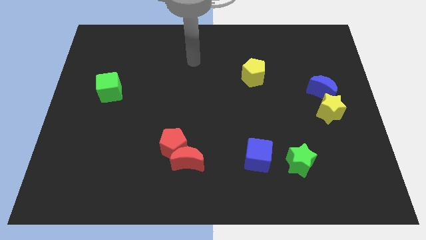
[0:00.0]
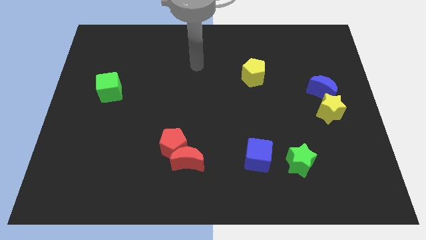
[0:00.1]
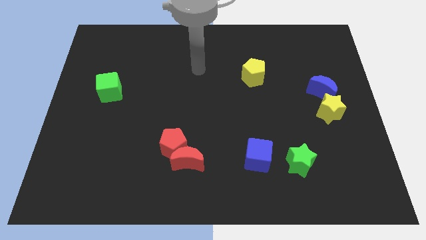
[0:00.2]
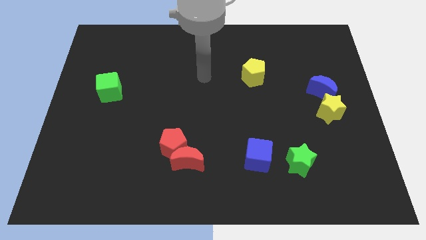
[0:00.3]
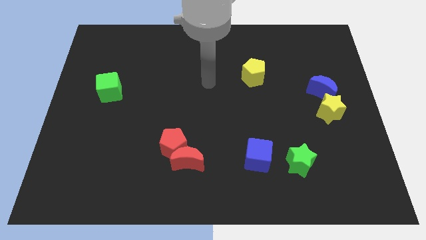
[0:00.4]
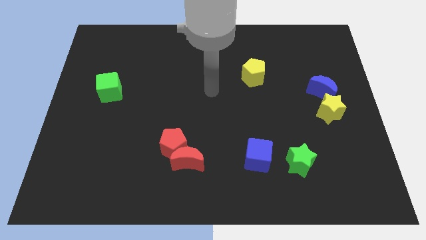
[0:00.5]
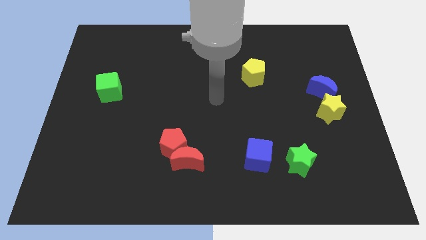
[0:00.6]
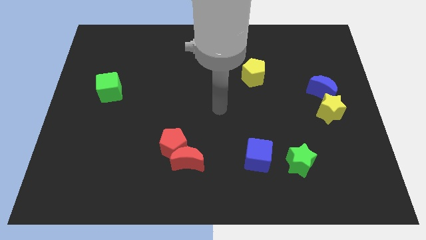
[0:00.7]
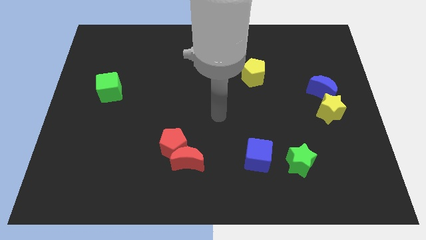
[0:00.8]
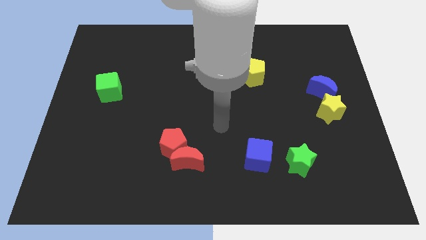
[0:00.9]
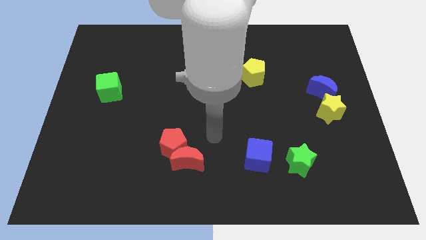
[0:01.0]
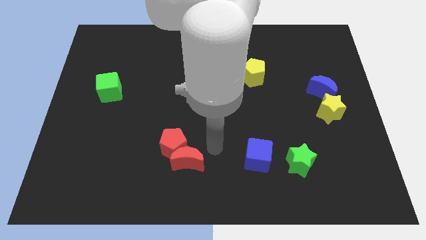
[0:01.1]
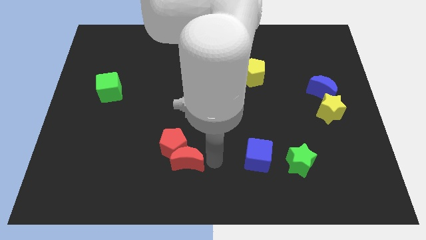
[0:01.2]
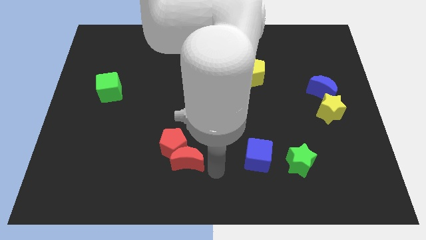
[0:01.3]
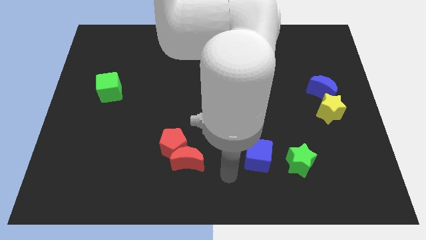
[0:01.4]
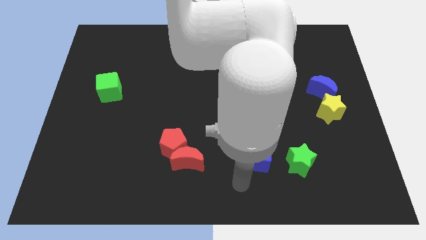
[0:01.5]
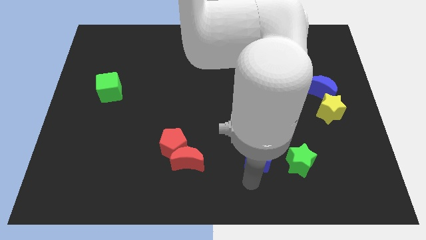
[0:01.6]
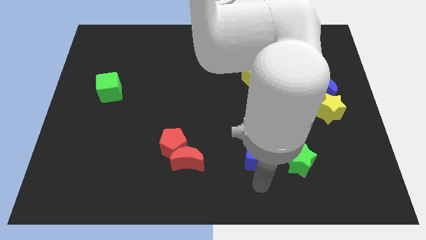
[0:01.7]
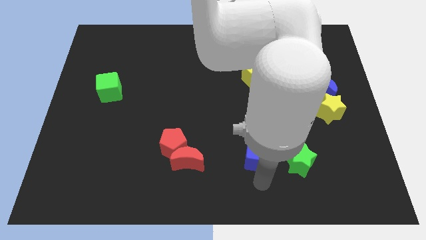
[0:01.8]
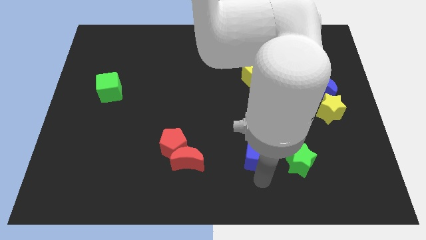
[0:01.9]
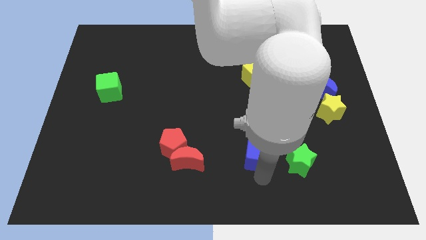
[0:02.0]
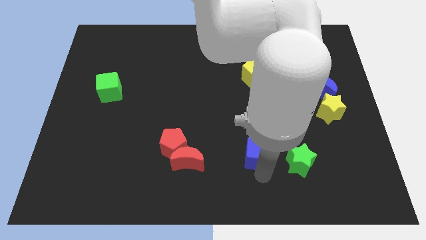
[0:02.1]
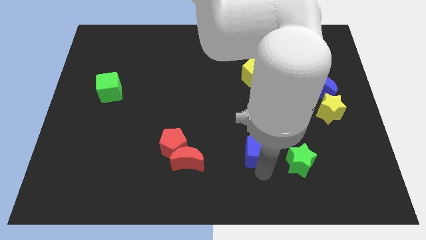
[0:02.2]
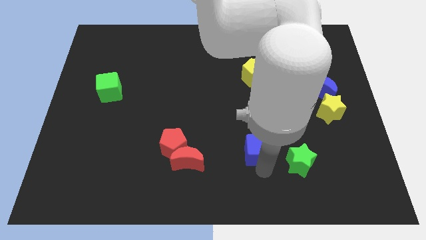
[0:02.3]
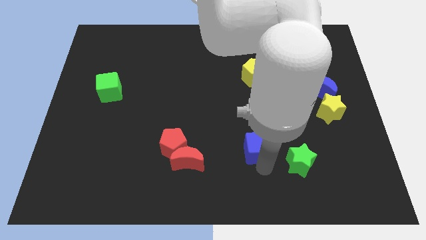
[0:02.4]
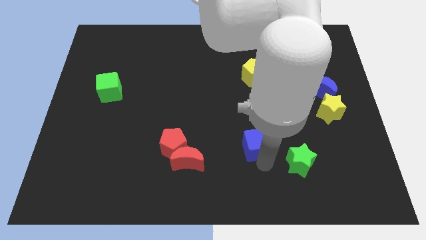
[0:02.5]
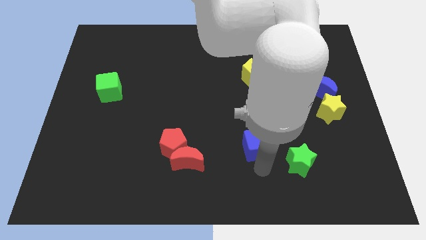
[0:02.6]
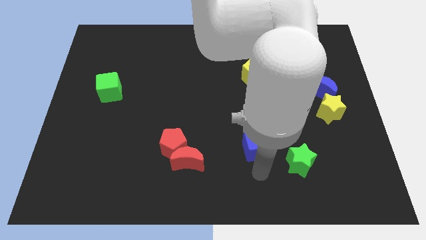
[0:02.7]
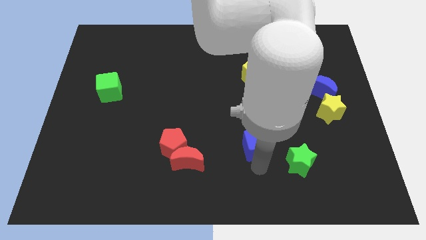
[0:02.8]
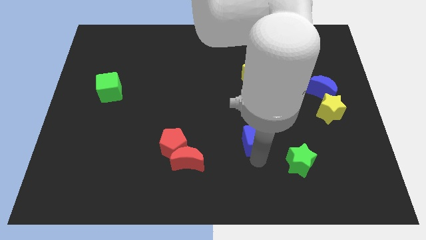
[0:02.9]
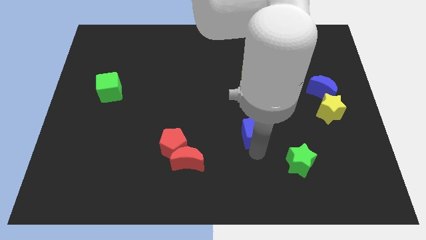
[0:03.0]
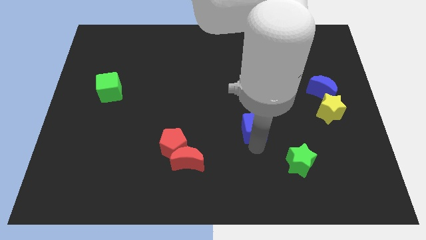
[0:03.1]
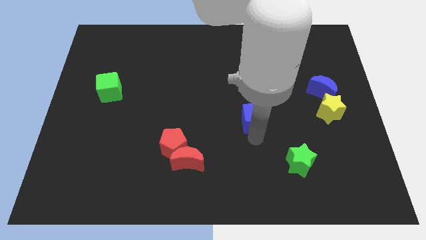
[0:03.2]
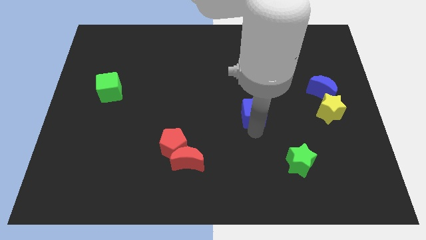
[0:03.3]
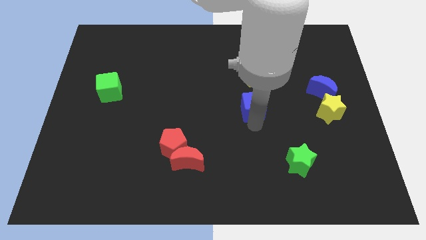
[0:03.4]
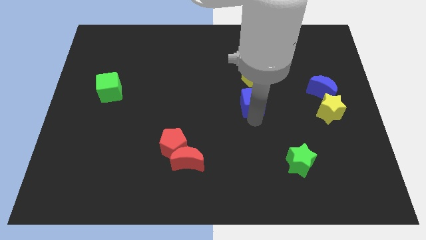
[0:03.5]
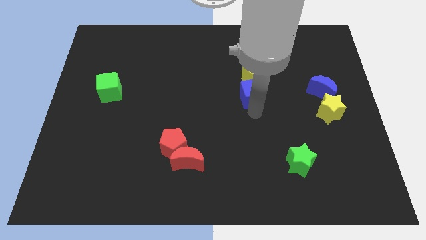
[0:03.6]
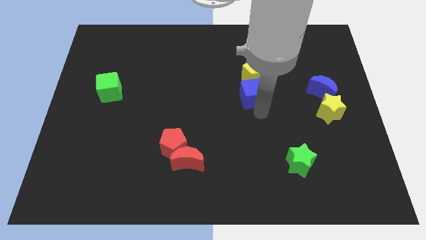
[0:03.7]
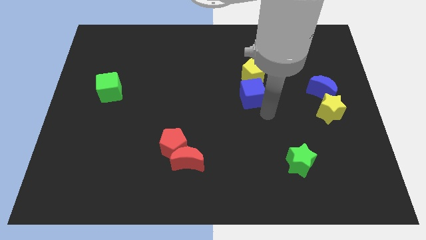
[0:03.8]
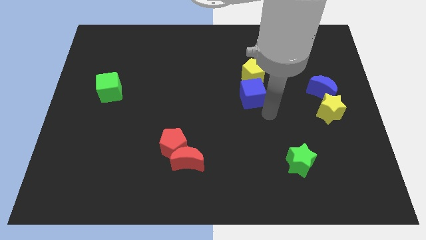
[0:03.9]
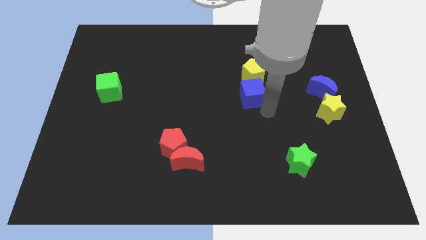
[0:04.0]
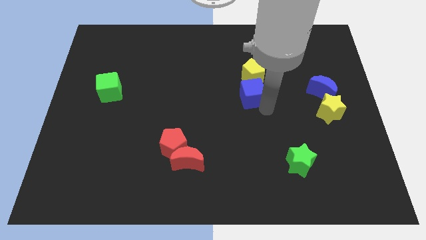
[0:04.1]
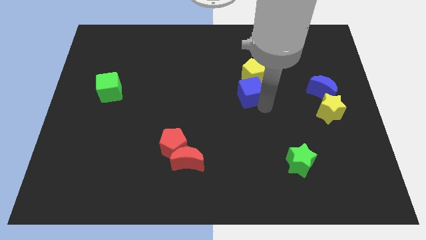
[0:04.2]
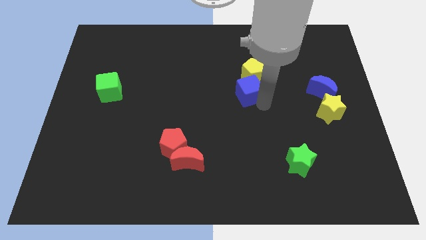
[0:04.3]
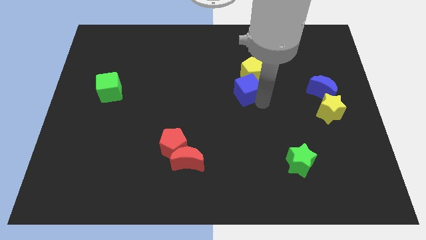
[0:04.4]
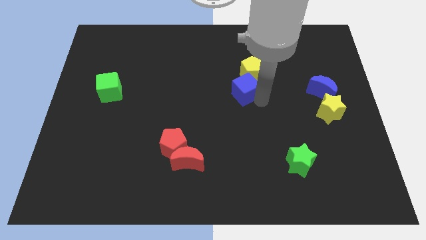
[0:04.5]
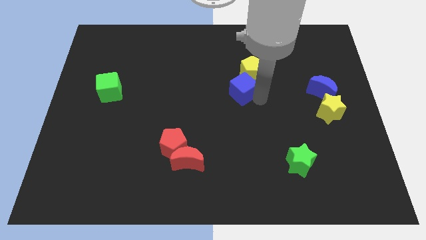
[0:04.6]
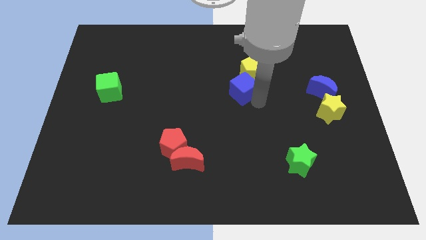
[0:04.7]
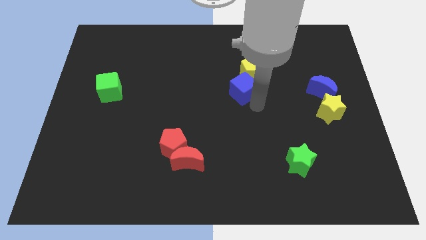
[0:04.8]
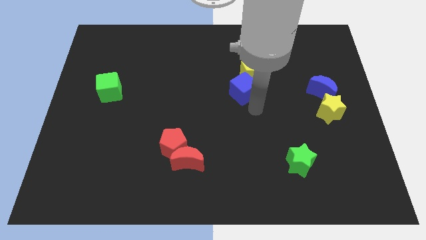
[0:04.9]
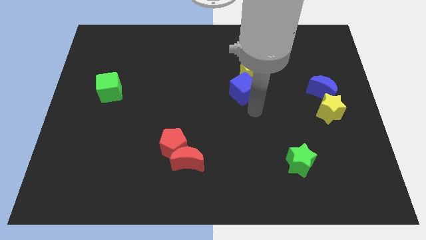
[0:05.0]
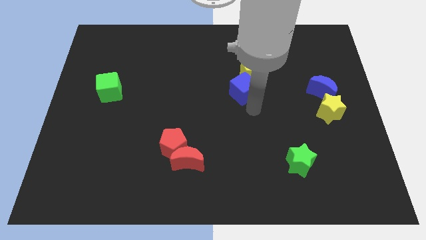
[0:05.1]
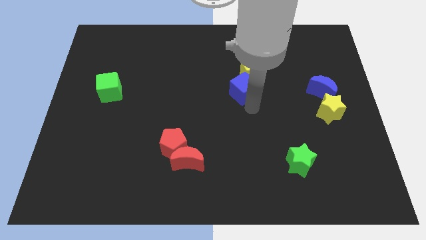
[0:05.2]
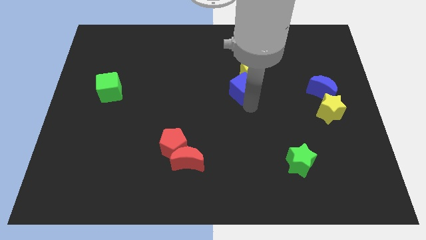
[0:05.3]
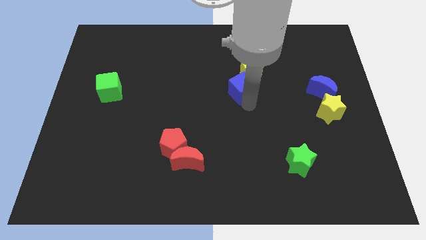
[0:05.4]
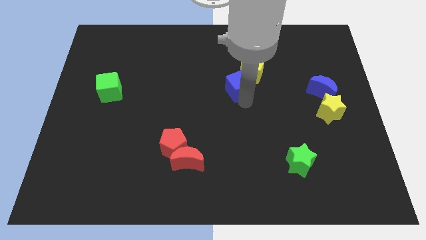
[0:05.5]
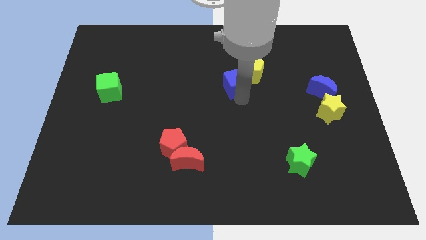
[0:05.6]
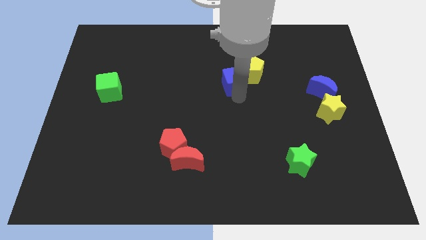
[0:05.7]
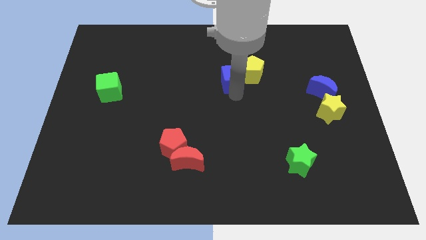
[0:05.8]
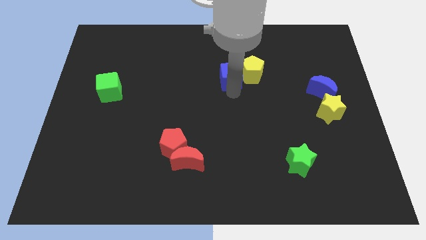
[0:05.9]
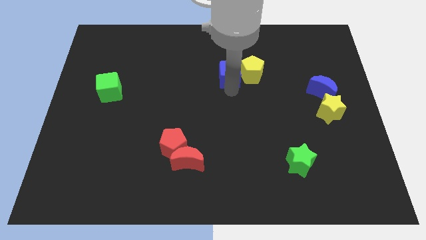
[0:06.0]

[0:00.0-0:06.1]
put the blue cube to the top left side of the yellow pentagon
